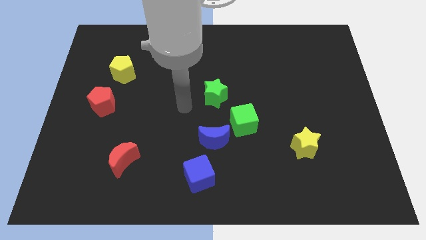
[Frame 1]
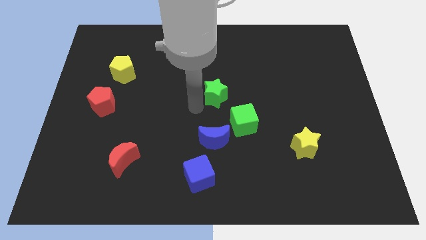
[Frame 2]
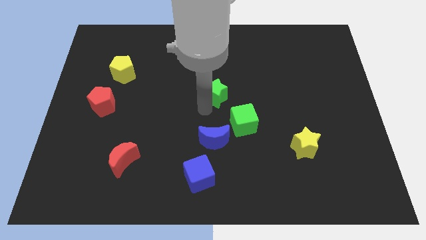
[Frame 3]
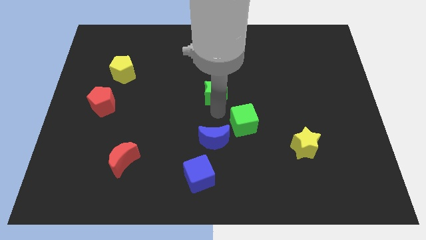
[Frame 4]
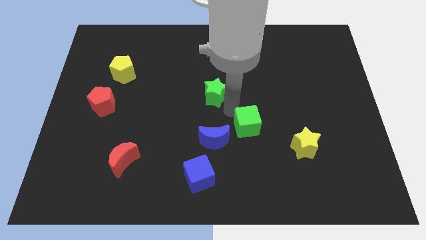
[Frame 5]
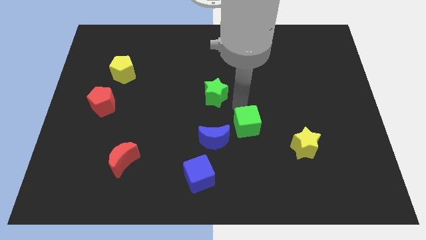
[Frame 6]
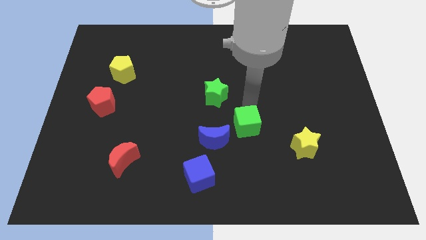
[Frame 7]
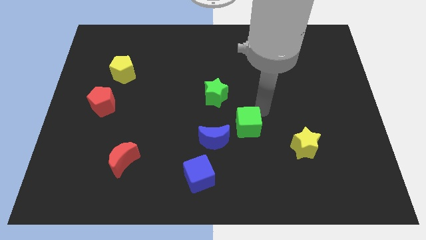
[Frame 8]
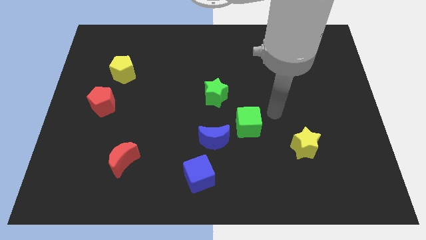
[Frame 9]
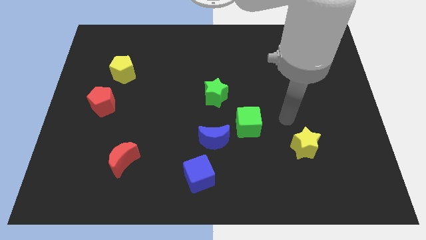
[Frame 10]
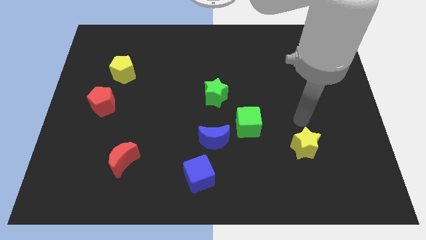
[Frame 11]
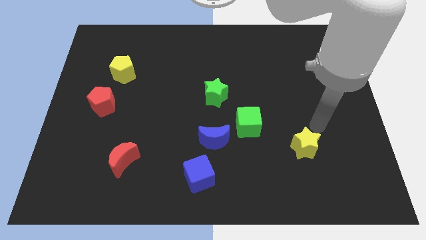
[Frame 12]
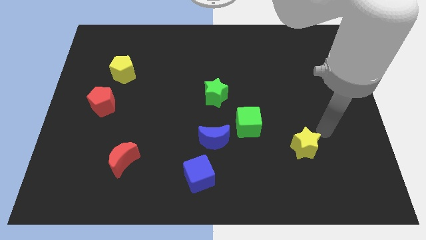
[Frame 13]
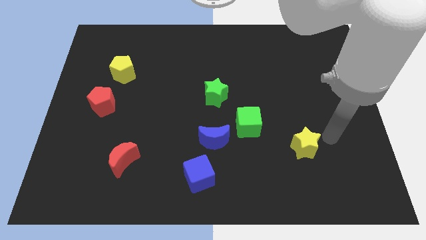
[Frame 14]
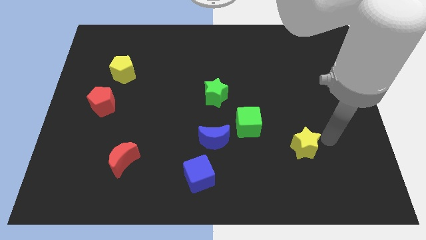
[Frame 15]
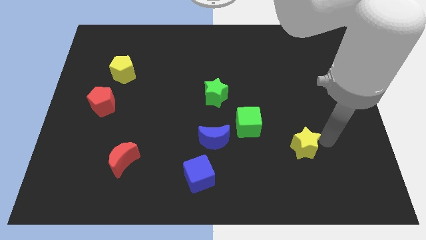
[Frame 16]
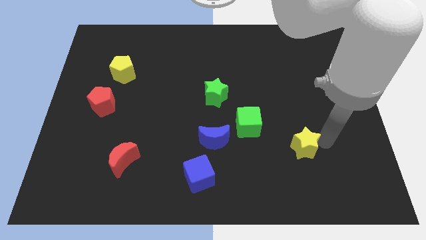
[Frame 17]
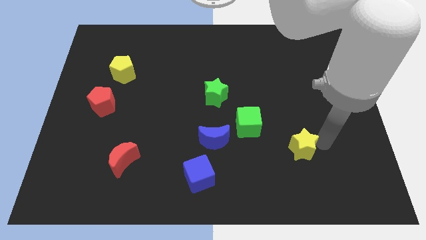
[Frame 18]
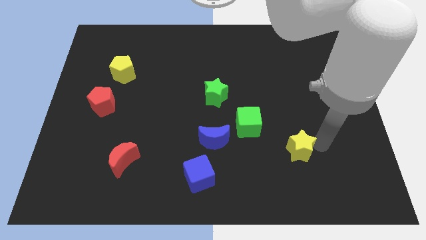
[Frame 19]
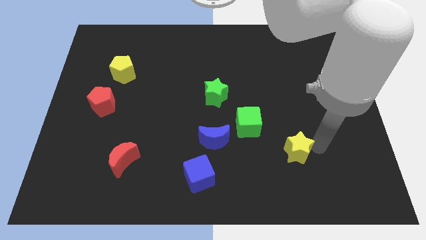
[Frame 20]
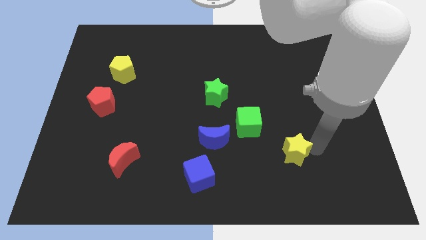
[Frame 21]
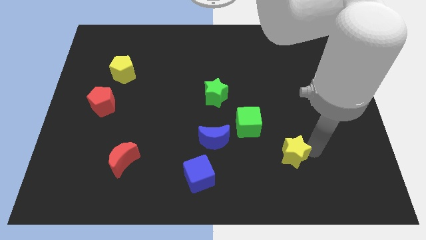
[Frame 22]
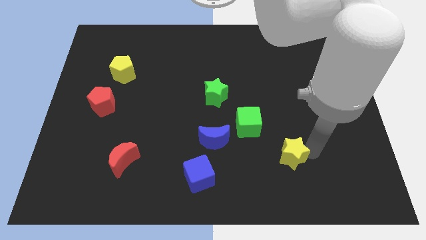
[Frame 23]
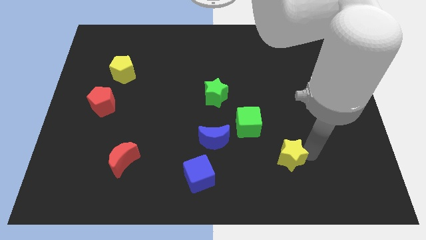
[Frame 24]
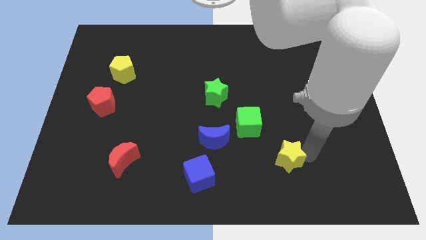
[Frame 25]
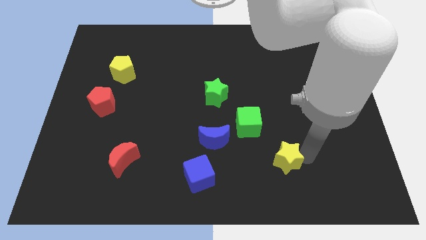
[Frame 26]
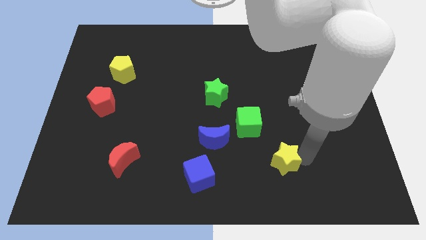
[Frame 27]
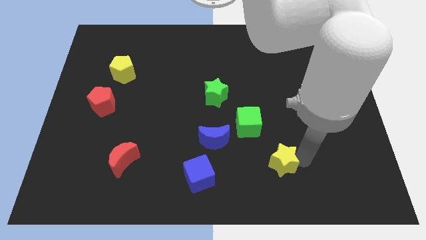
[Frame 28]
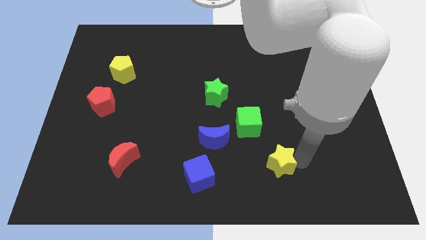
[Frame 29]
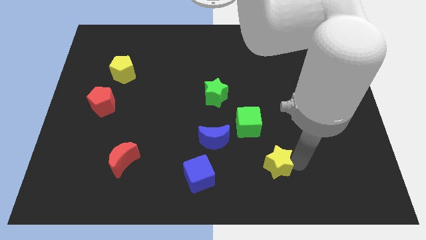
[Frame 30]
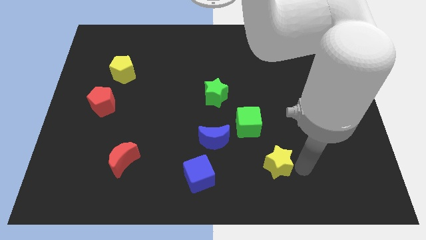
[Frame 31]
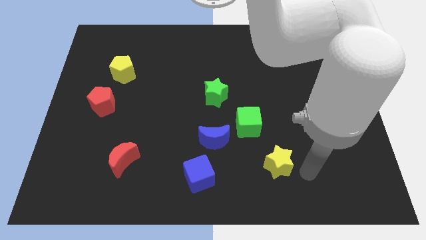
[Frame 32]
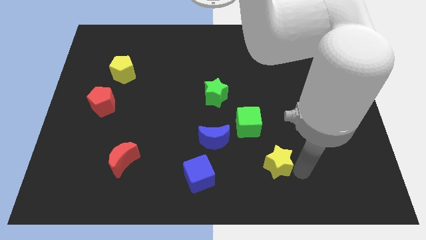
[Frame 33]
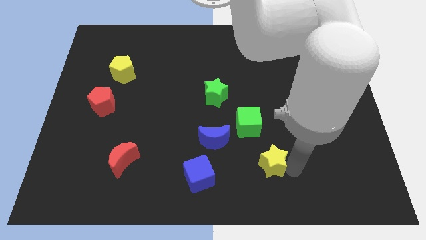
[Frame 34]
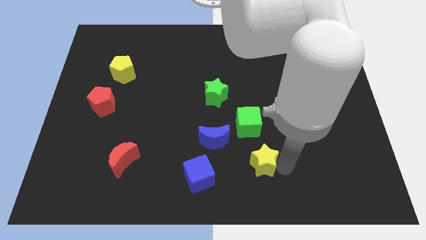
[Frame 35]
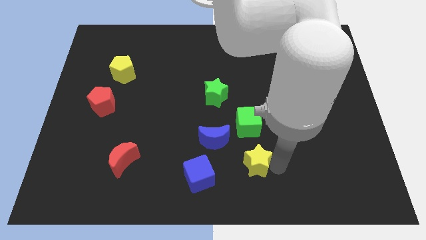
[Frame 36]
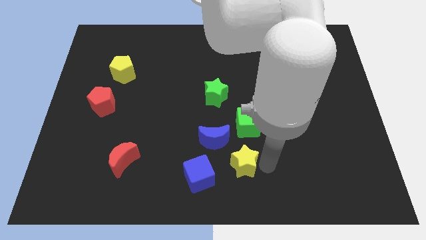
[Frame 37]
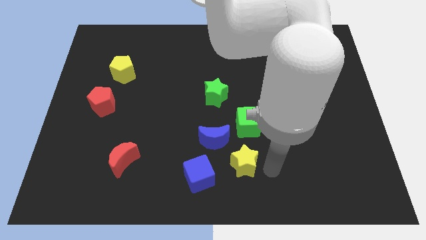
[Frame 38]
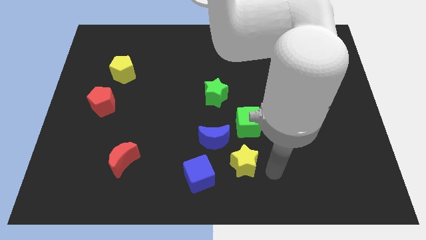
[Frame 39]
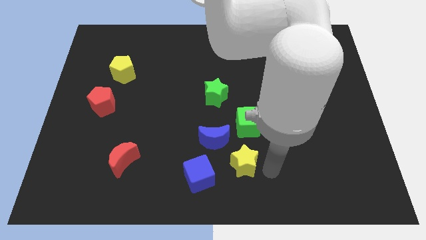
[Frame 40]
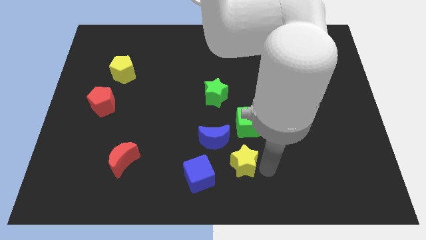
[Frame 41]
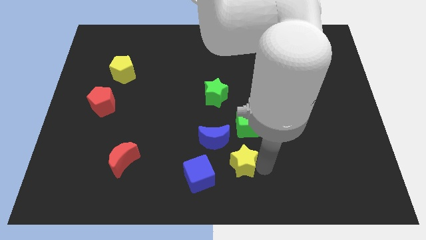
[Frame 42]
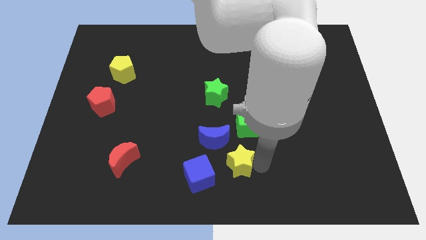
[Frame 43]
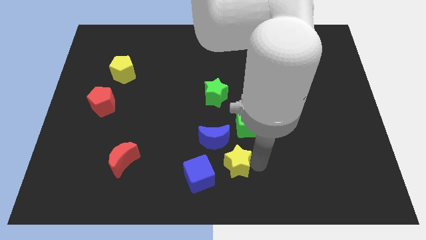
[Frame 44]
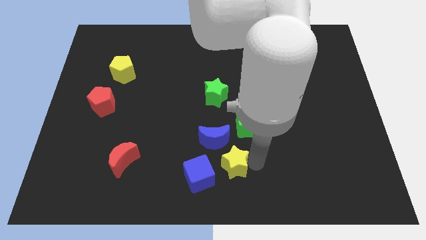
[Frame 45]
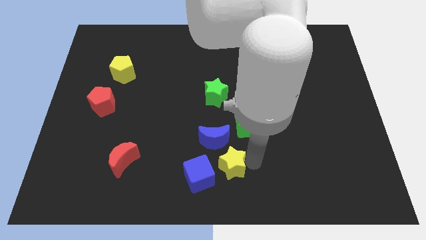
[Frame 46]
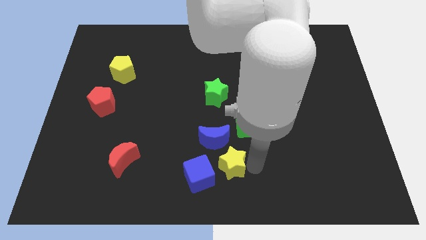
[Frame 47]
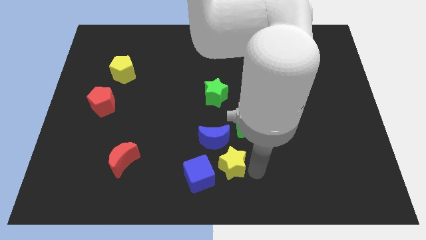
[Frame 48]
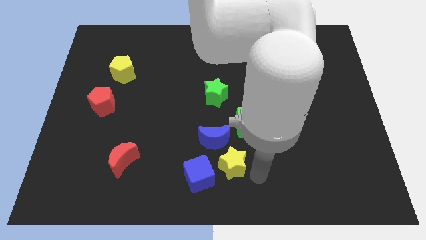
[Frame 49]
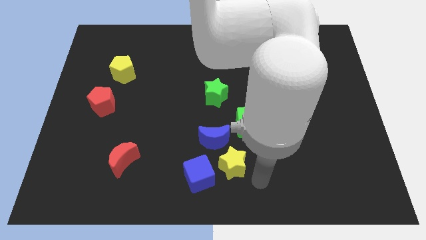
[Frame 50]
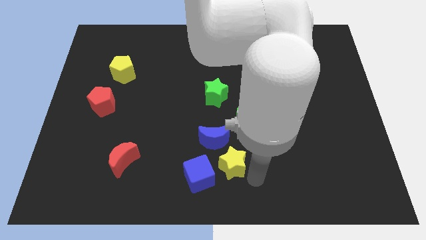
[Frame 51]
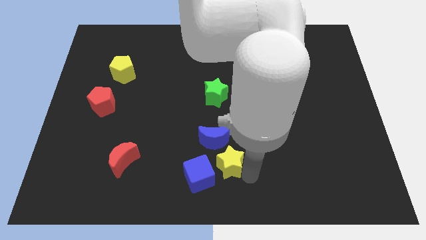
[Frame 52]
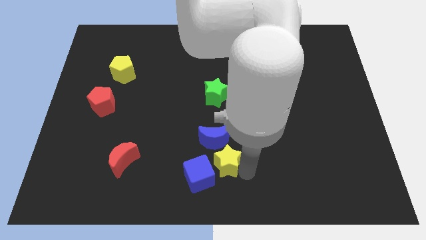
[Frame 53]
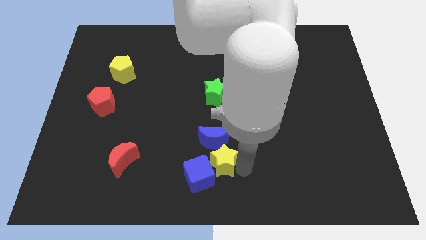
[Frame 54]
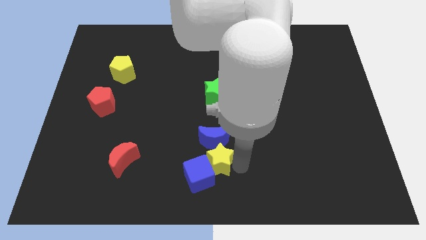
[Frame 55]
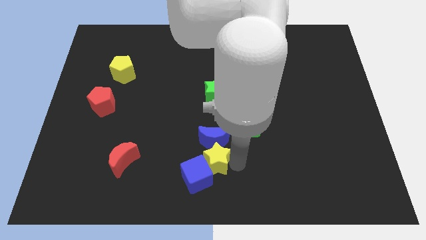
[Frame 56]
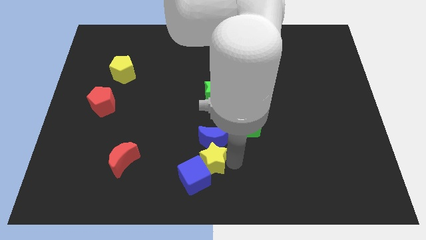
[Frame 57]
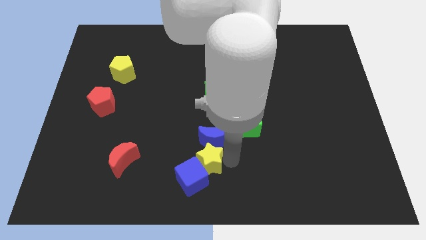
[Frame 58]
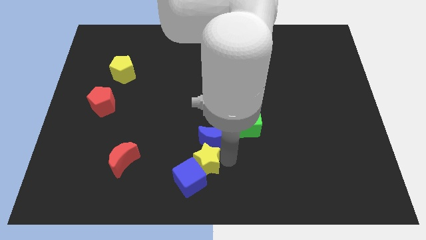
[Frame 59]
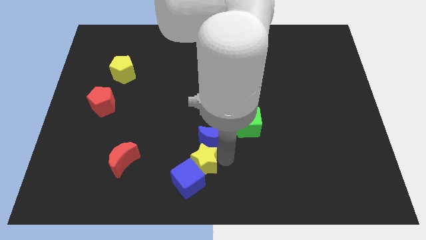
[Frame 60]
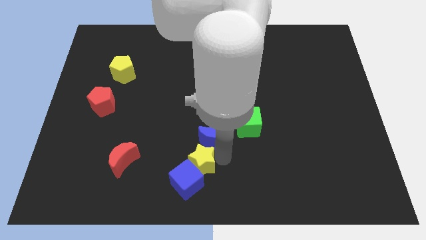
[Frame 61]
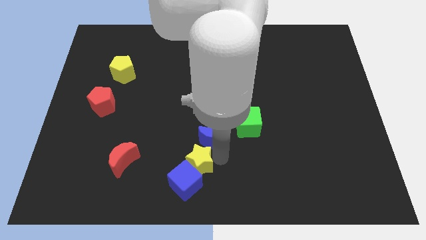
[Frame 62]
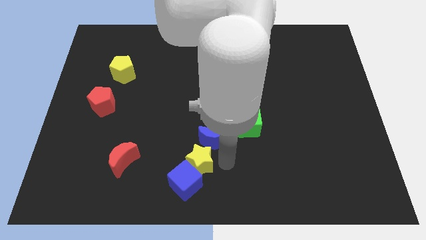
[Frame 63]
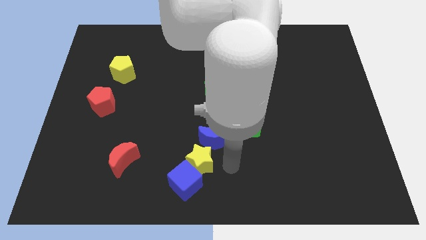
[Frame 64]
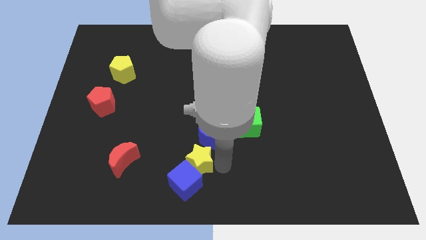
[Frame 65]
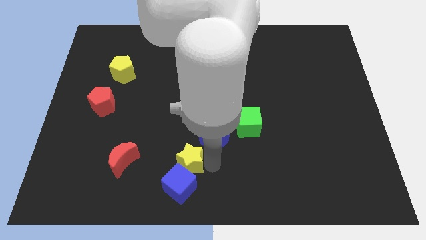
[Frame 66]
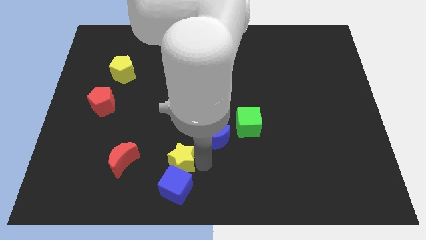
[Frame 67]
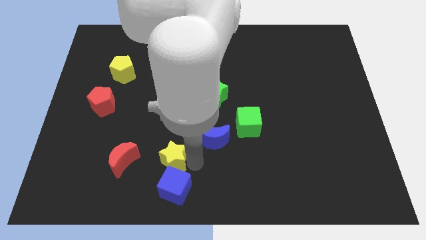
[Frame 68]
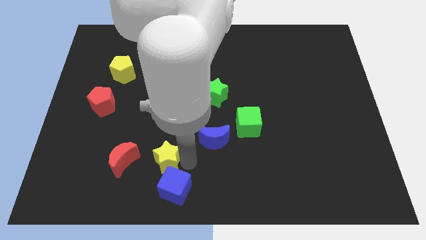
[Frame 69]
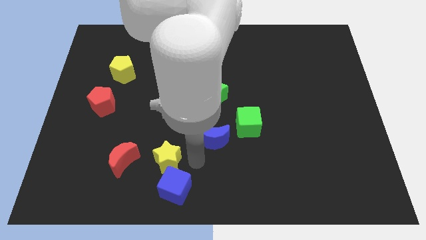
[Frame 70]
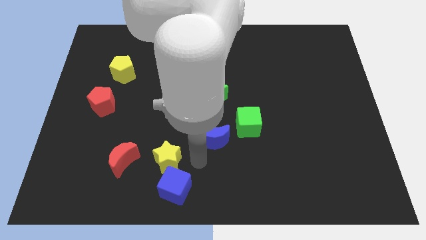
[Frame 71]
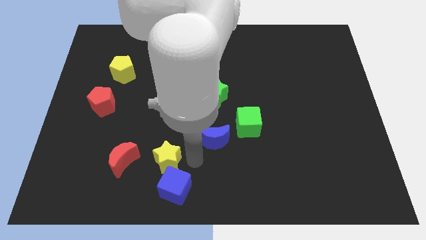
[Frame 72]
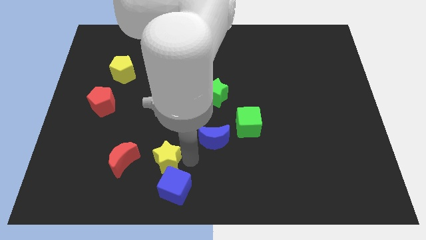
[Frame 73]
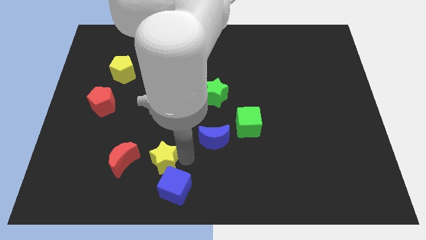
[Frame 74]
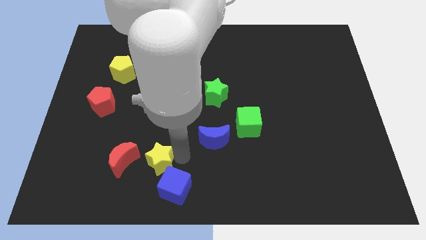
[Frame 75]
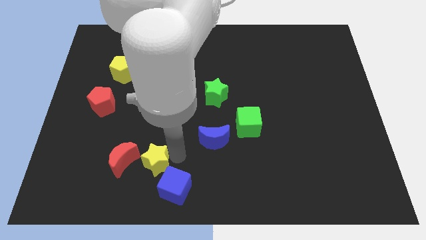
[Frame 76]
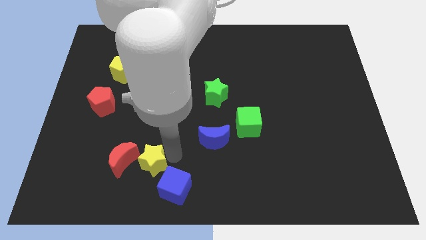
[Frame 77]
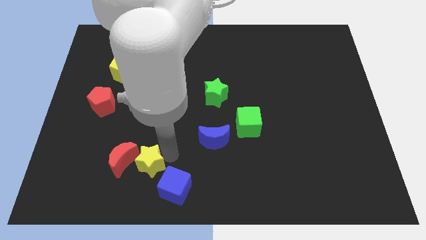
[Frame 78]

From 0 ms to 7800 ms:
slide the yellow star towards the red moon
